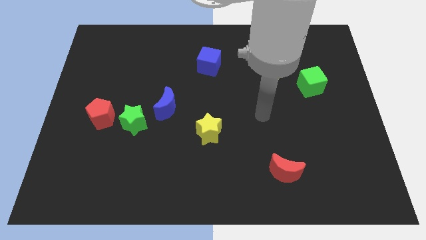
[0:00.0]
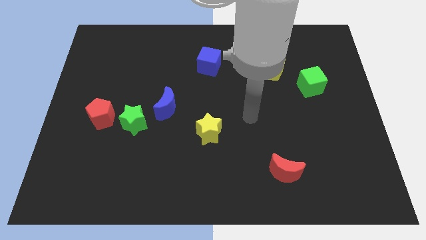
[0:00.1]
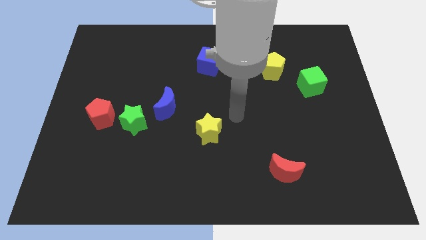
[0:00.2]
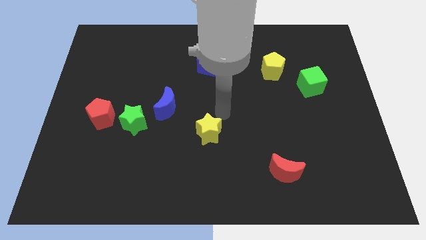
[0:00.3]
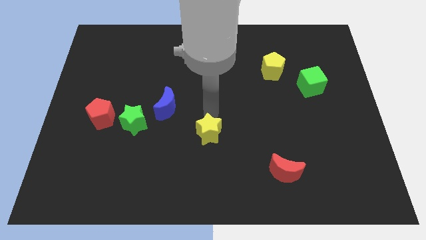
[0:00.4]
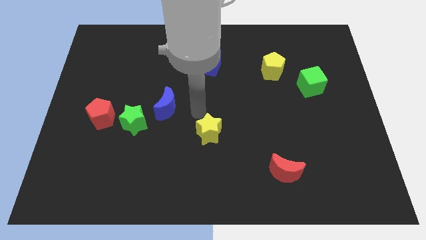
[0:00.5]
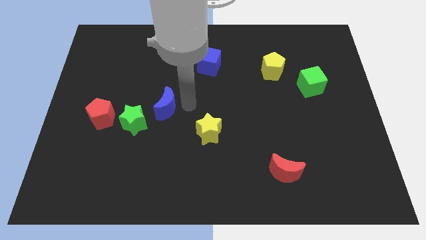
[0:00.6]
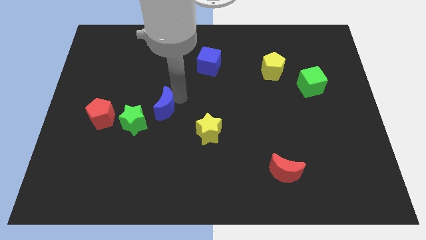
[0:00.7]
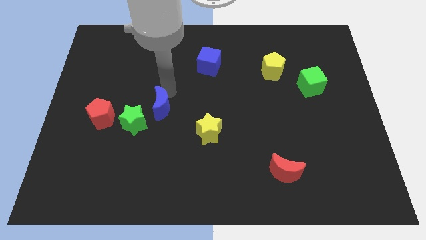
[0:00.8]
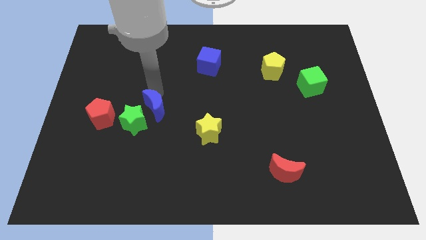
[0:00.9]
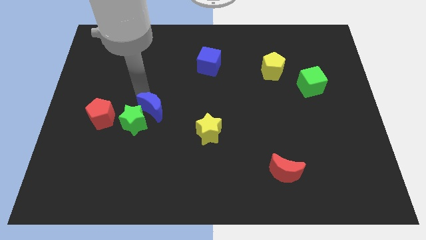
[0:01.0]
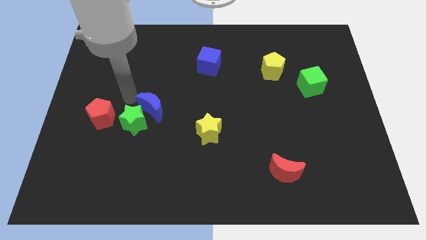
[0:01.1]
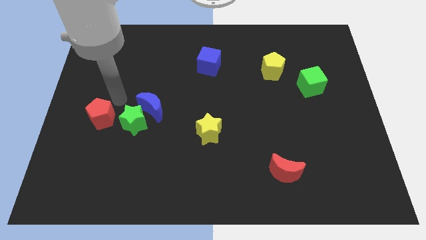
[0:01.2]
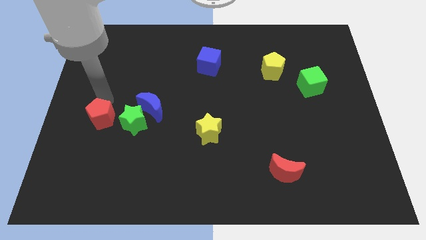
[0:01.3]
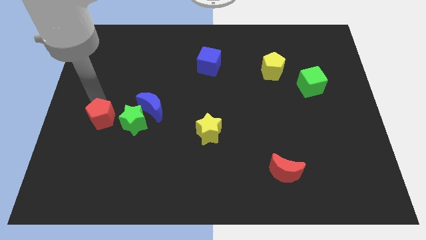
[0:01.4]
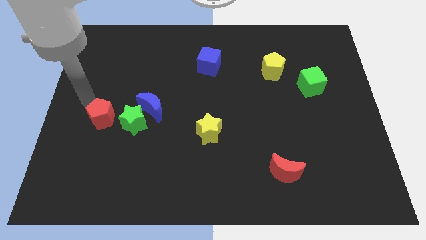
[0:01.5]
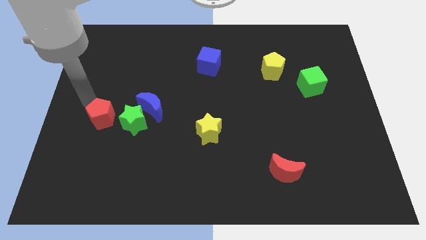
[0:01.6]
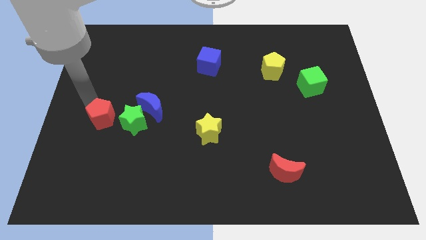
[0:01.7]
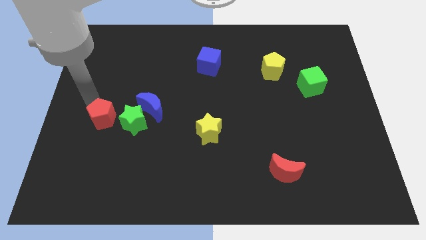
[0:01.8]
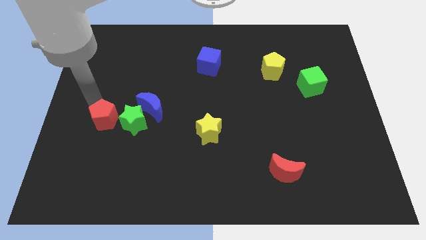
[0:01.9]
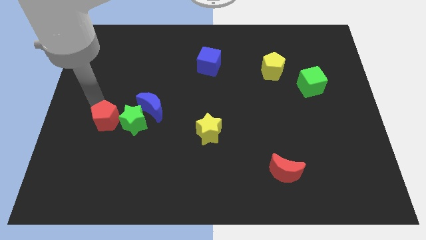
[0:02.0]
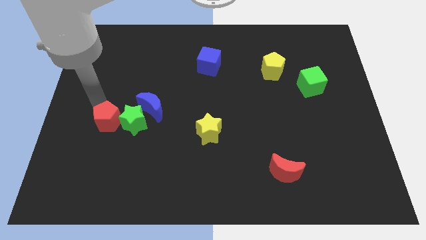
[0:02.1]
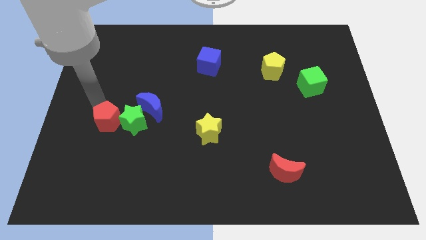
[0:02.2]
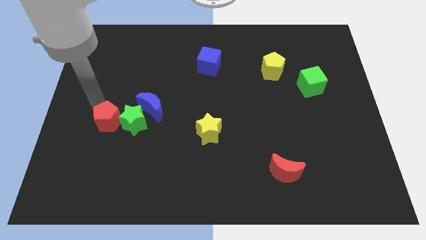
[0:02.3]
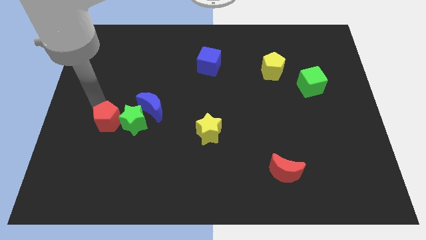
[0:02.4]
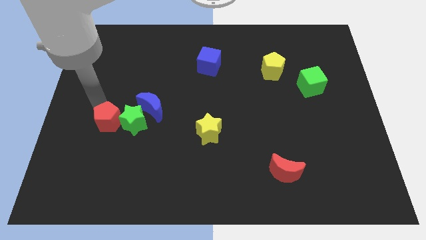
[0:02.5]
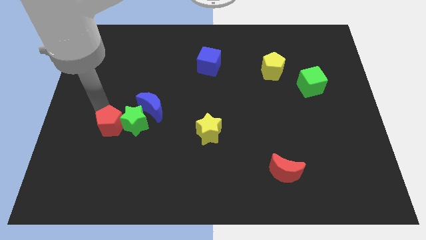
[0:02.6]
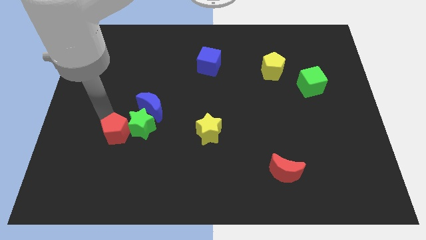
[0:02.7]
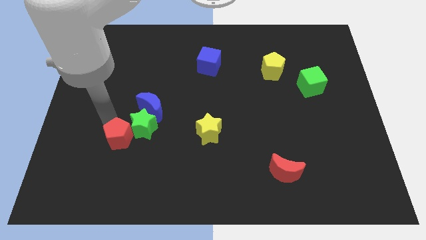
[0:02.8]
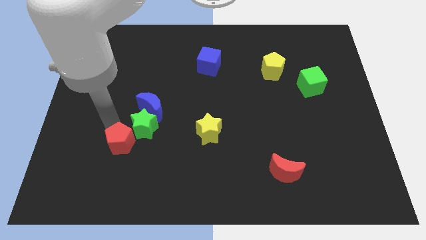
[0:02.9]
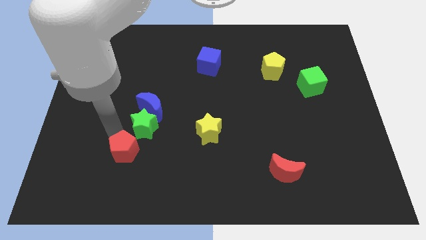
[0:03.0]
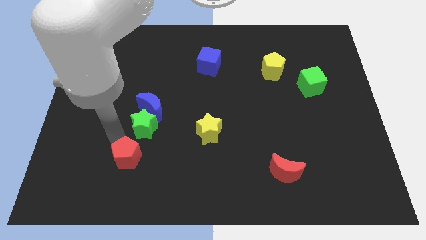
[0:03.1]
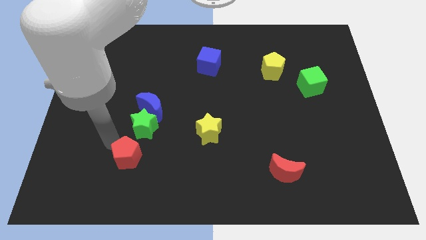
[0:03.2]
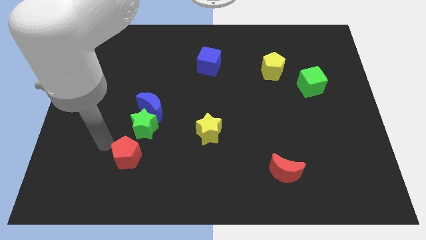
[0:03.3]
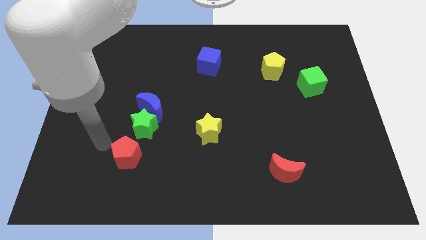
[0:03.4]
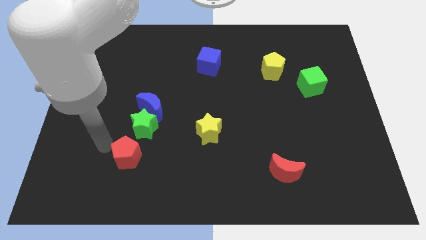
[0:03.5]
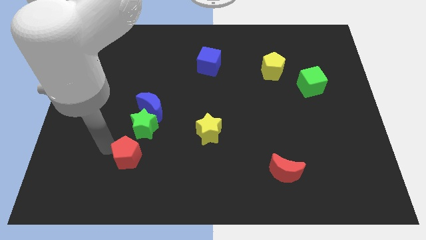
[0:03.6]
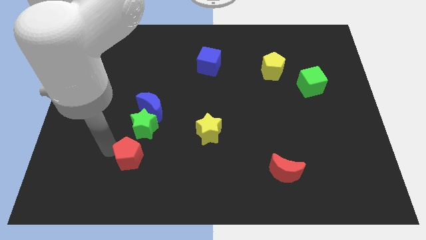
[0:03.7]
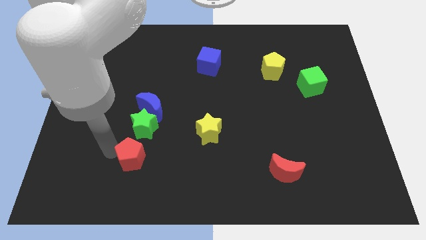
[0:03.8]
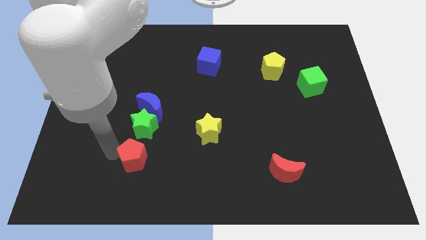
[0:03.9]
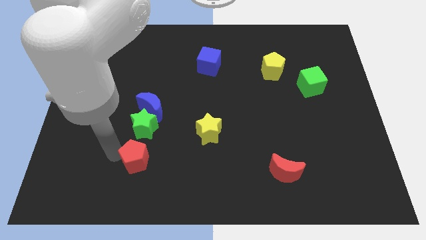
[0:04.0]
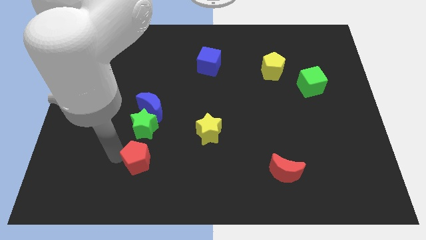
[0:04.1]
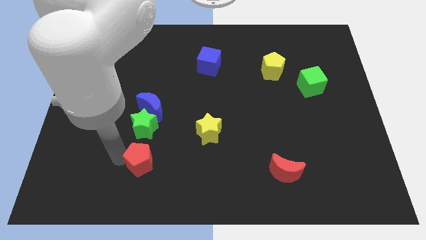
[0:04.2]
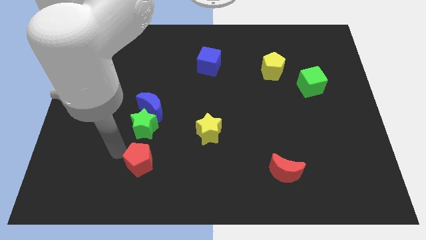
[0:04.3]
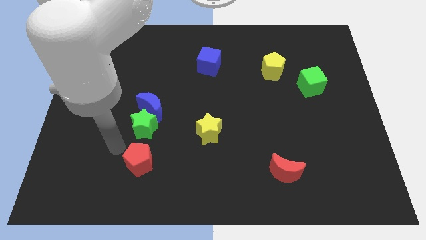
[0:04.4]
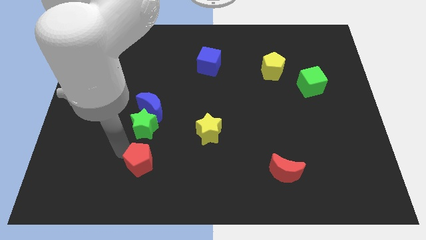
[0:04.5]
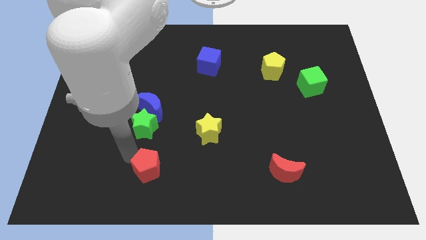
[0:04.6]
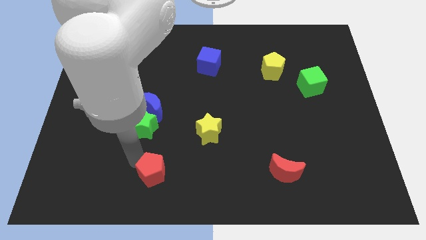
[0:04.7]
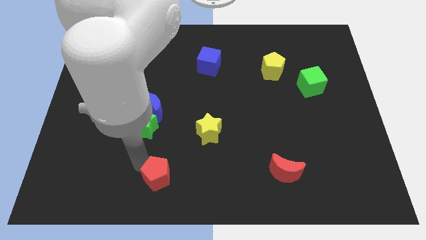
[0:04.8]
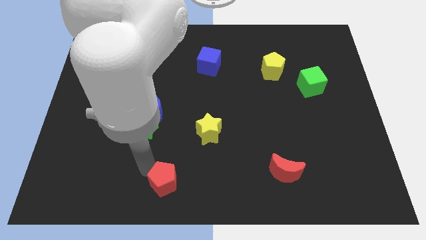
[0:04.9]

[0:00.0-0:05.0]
push the red pentagon to the bottom

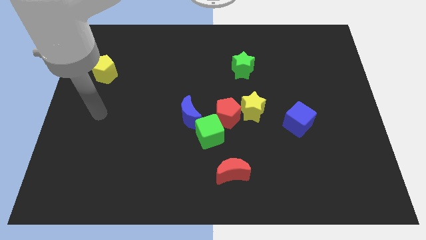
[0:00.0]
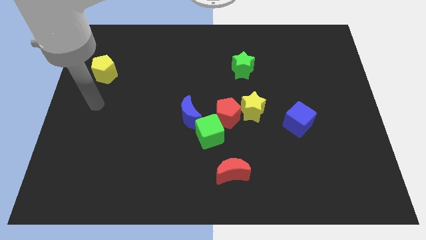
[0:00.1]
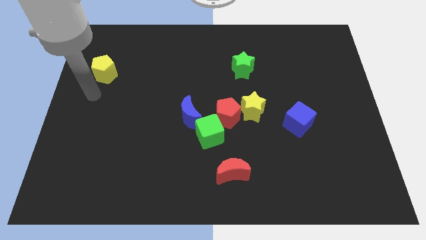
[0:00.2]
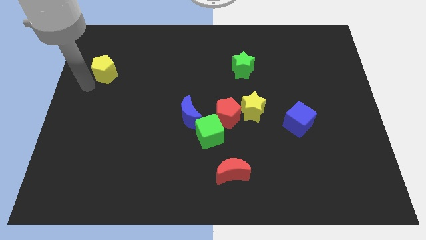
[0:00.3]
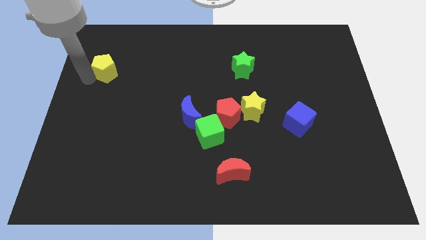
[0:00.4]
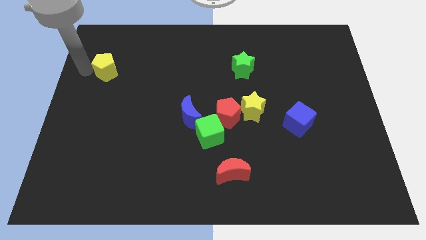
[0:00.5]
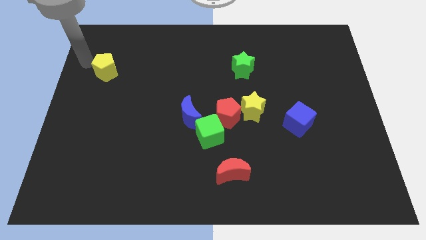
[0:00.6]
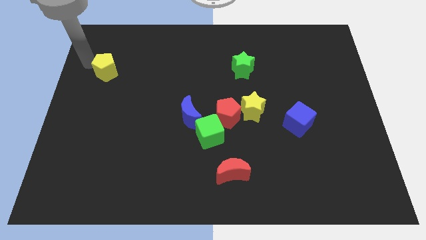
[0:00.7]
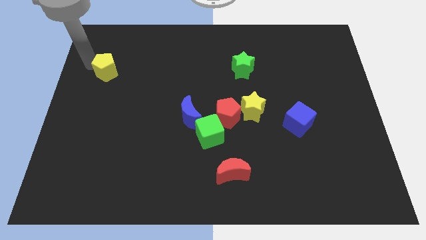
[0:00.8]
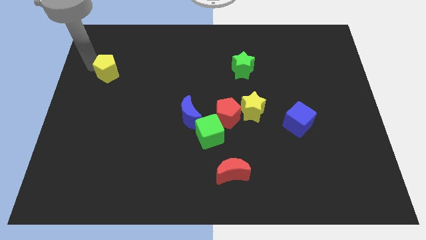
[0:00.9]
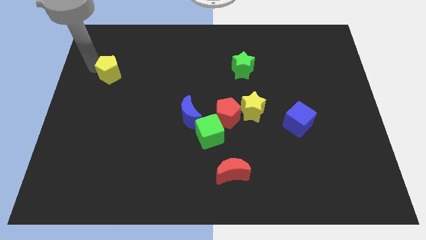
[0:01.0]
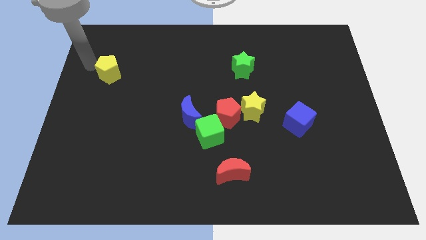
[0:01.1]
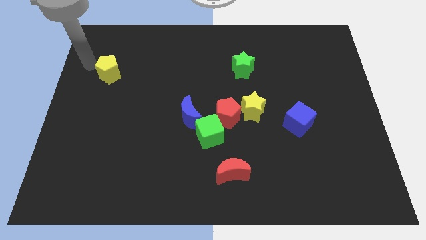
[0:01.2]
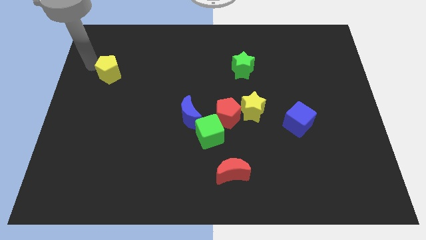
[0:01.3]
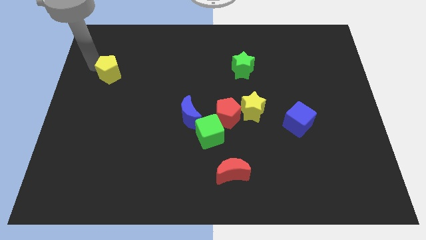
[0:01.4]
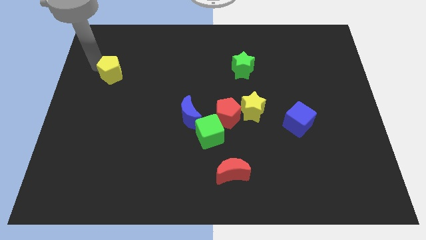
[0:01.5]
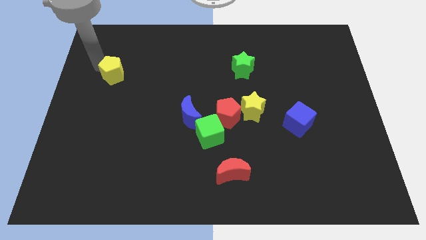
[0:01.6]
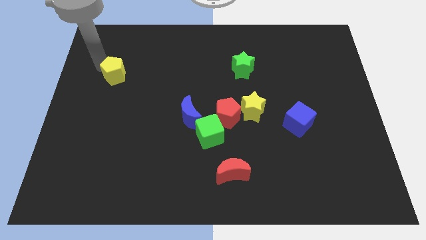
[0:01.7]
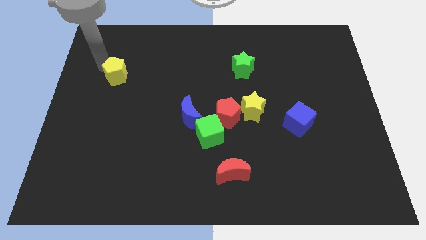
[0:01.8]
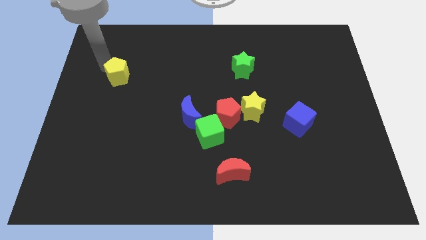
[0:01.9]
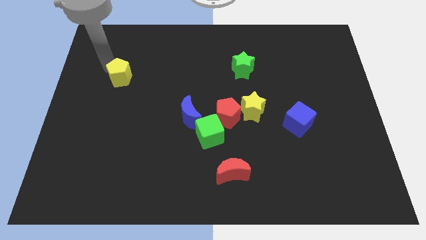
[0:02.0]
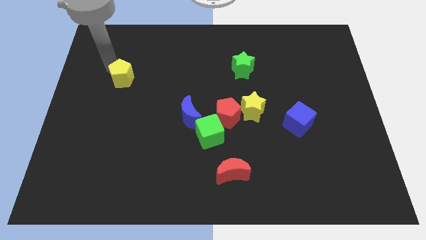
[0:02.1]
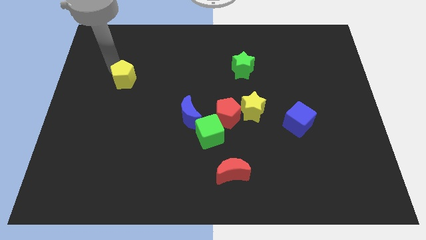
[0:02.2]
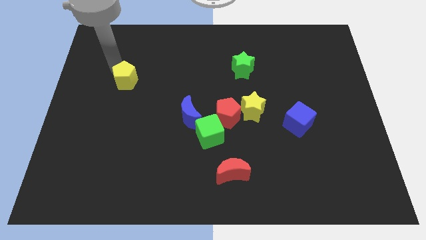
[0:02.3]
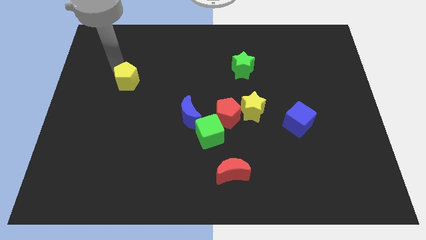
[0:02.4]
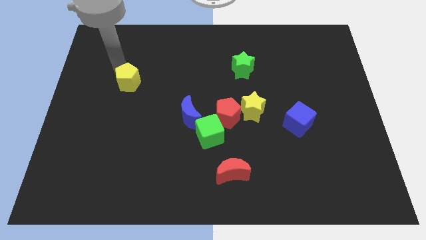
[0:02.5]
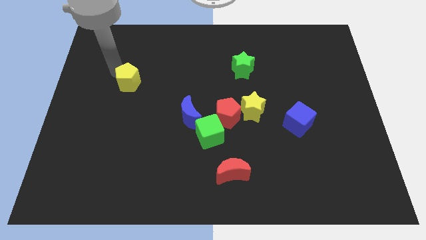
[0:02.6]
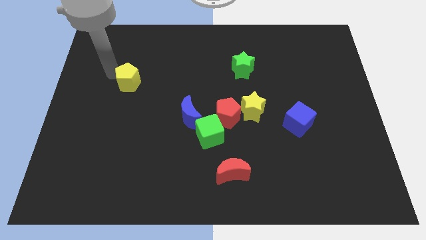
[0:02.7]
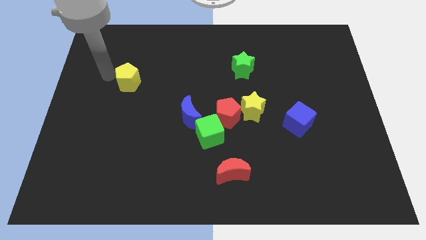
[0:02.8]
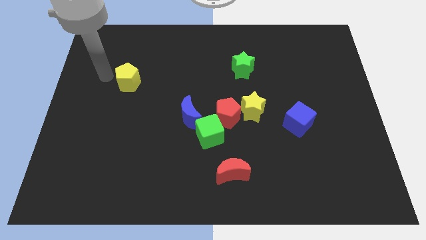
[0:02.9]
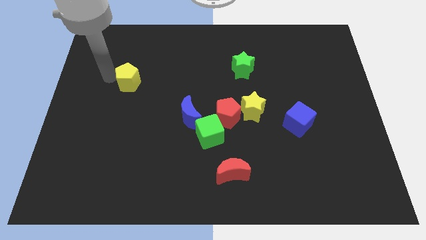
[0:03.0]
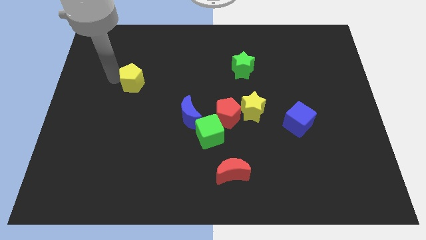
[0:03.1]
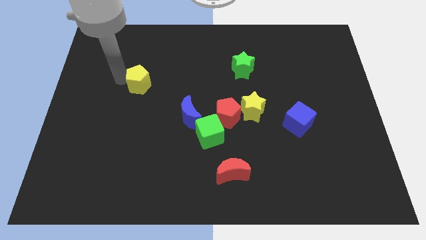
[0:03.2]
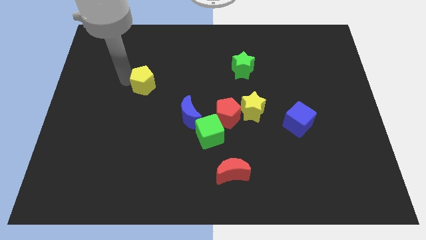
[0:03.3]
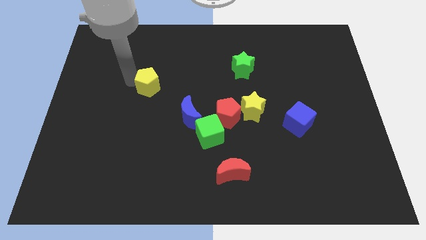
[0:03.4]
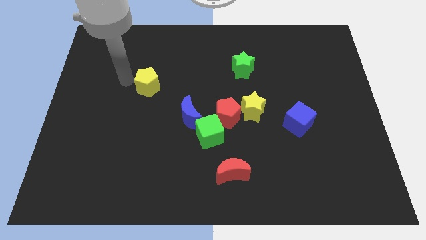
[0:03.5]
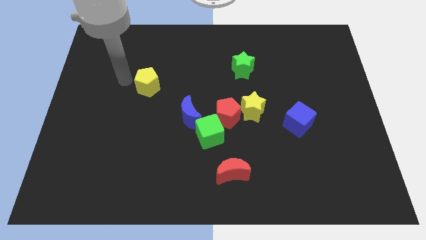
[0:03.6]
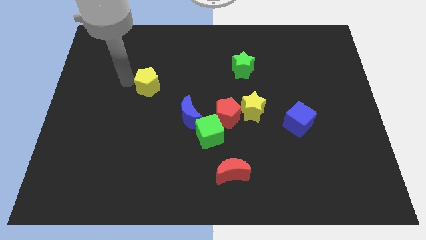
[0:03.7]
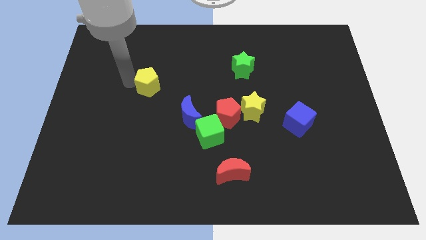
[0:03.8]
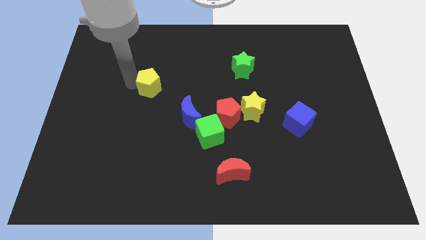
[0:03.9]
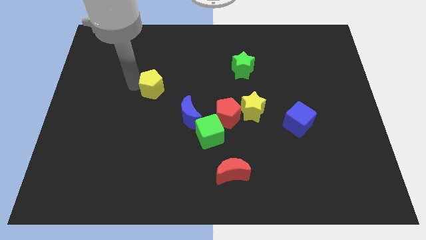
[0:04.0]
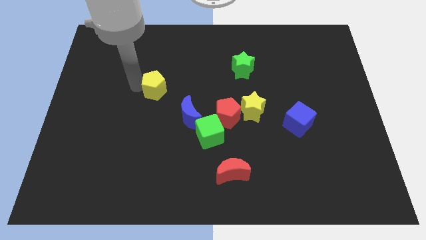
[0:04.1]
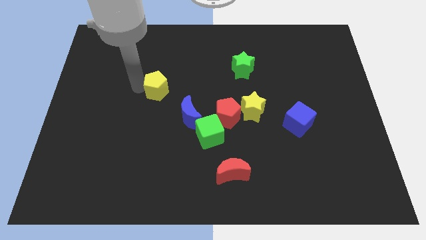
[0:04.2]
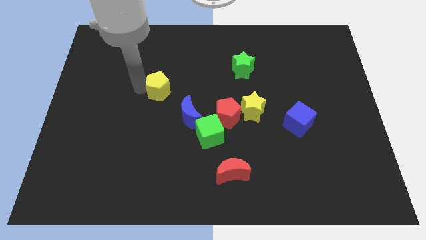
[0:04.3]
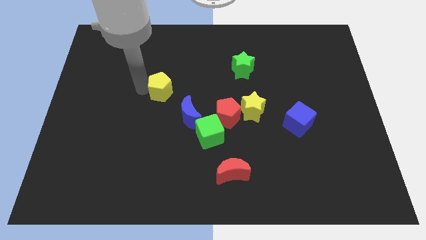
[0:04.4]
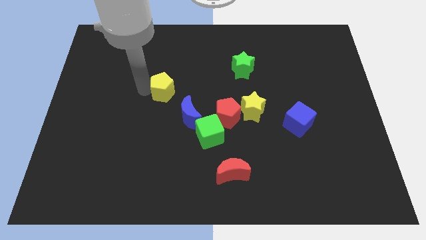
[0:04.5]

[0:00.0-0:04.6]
slide the yellow pentagon to the center of the board
